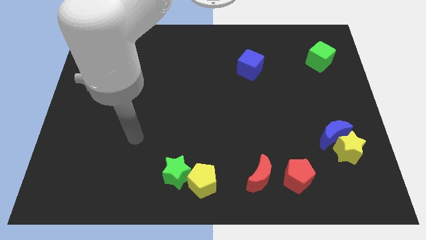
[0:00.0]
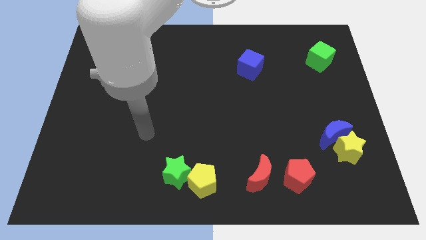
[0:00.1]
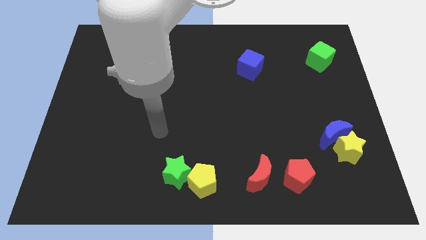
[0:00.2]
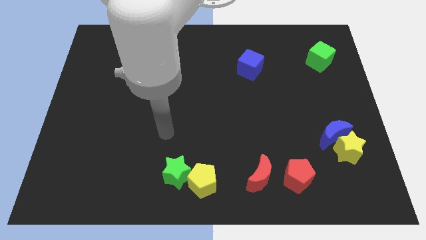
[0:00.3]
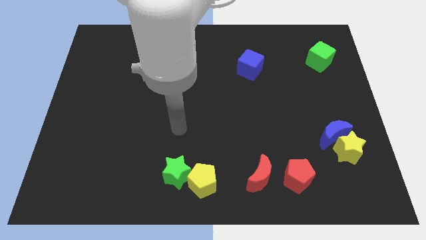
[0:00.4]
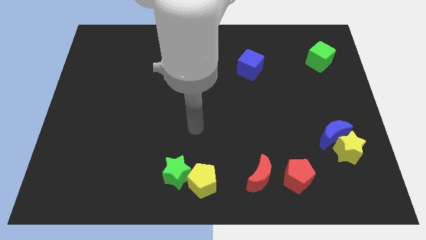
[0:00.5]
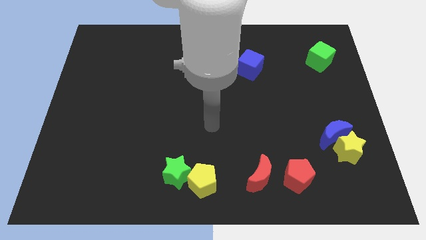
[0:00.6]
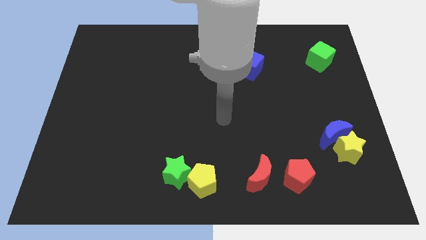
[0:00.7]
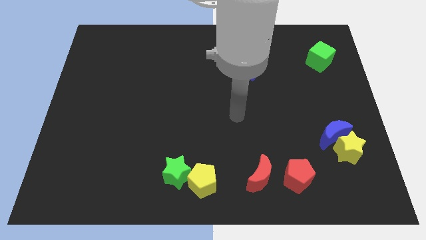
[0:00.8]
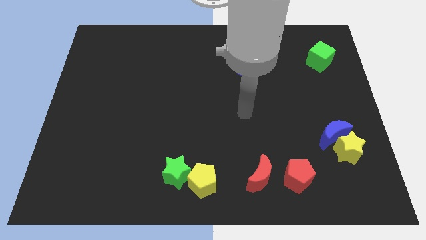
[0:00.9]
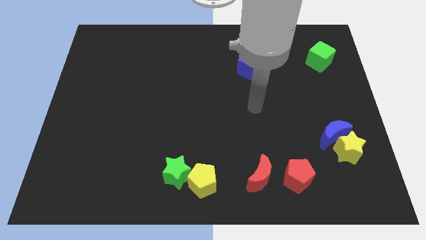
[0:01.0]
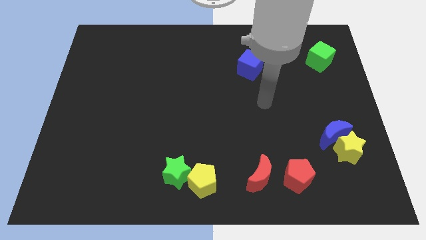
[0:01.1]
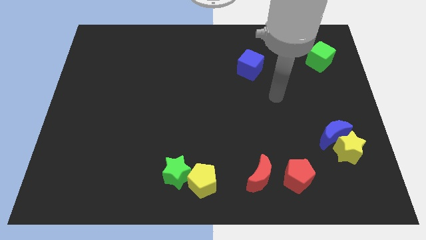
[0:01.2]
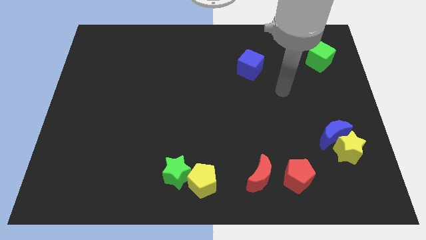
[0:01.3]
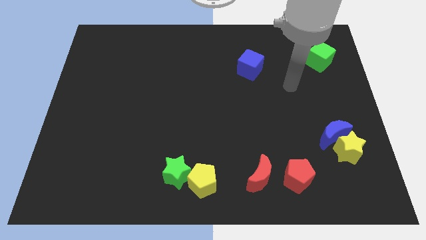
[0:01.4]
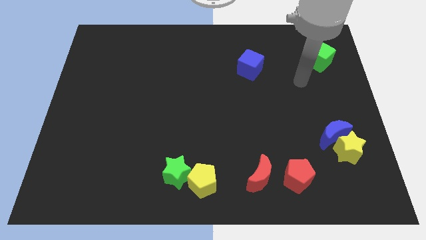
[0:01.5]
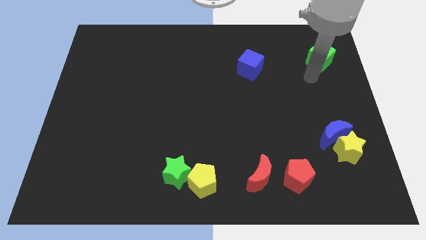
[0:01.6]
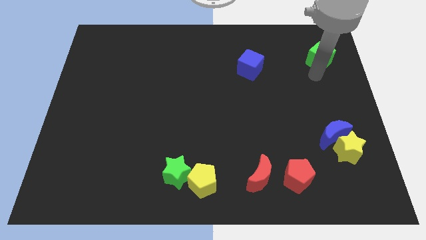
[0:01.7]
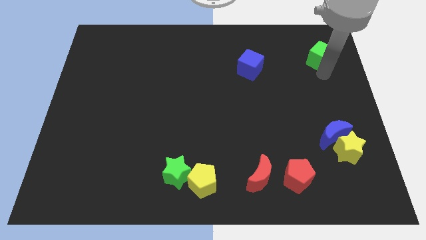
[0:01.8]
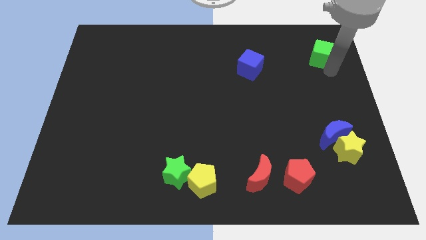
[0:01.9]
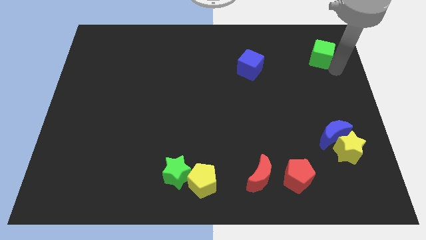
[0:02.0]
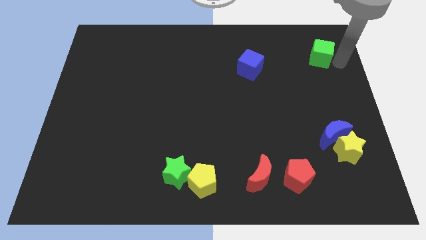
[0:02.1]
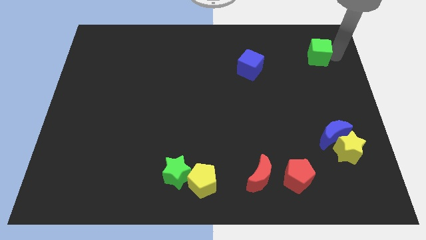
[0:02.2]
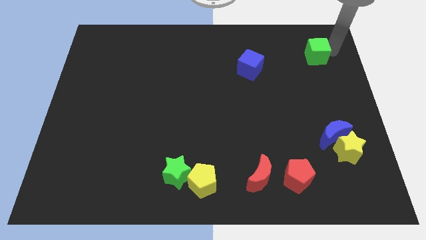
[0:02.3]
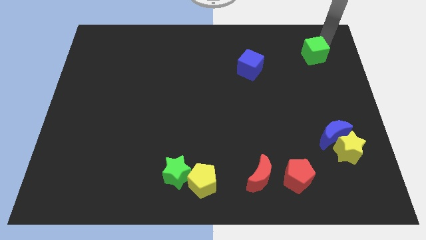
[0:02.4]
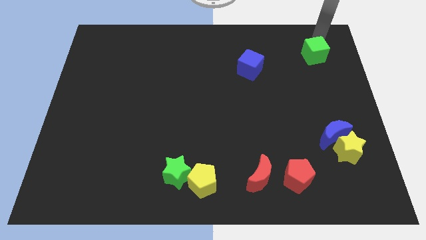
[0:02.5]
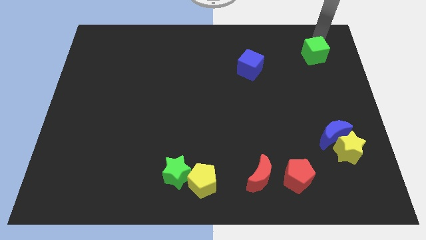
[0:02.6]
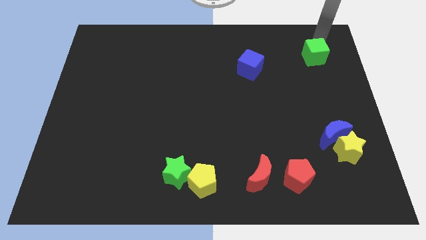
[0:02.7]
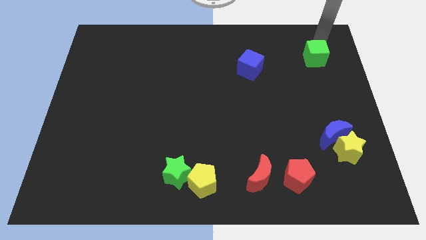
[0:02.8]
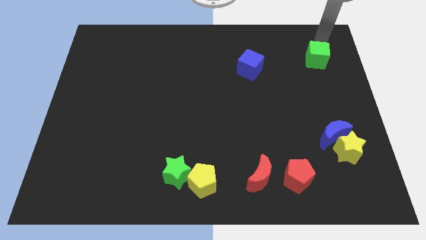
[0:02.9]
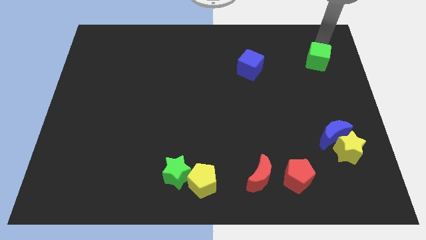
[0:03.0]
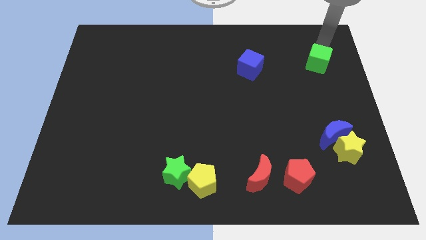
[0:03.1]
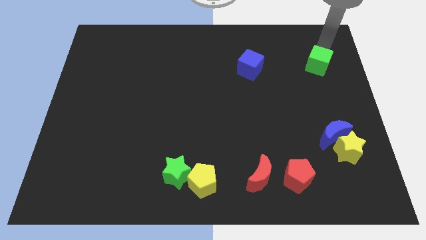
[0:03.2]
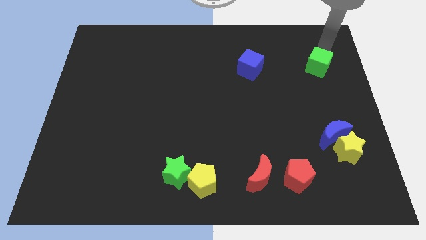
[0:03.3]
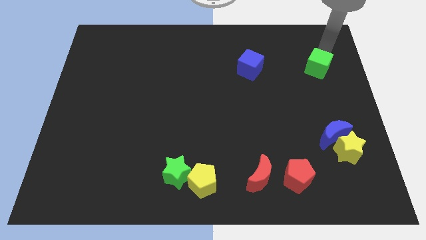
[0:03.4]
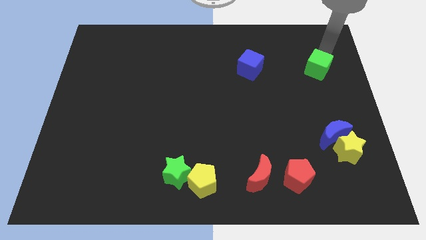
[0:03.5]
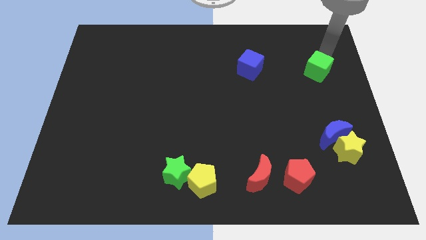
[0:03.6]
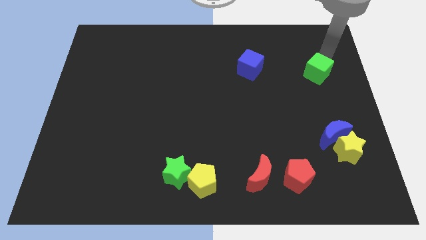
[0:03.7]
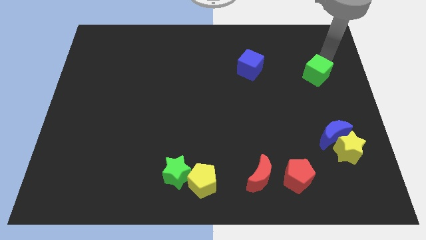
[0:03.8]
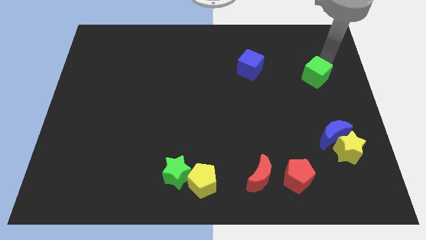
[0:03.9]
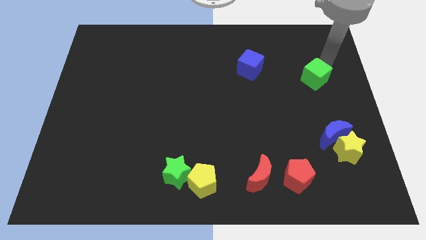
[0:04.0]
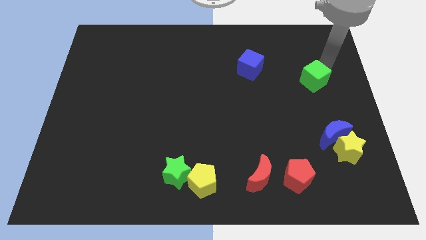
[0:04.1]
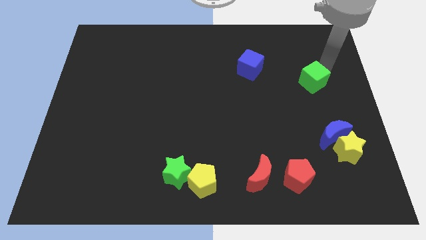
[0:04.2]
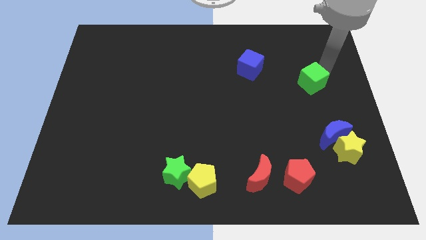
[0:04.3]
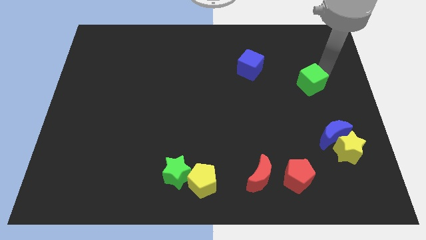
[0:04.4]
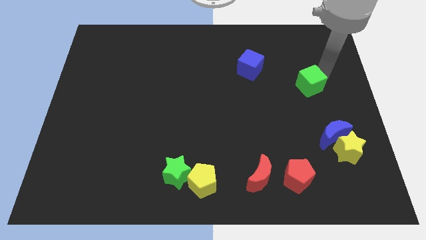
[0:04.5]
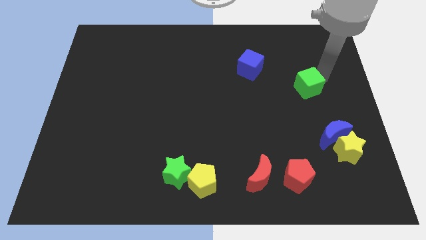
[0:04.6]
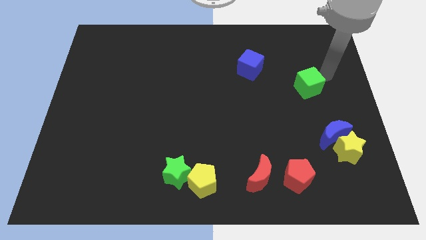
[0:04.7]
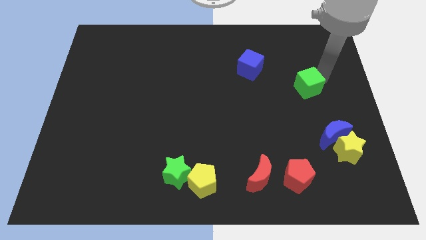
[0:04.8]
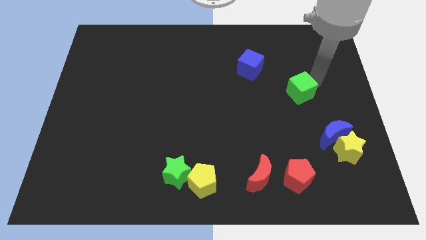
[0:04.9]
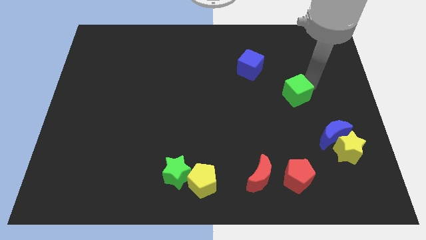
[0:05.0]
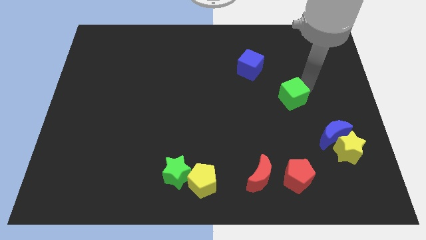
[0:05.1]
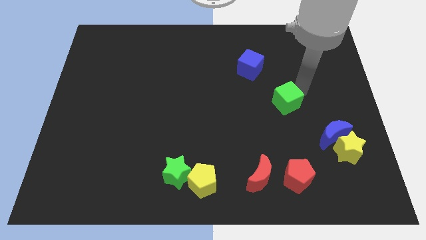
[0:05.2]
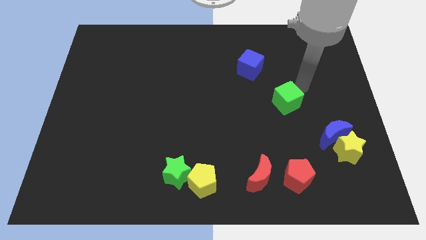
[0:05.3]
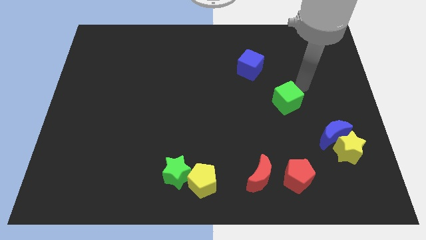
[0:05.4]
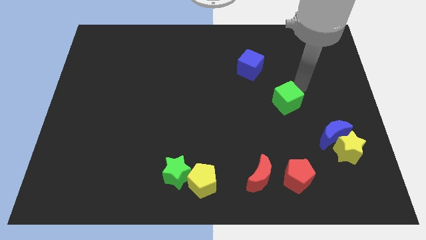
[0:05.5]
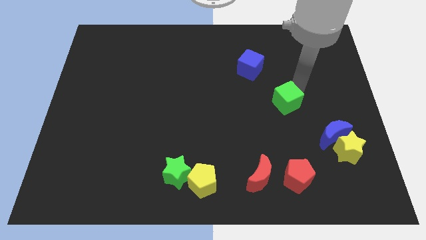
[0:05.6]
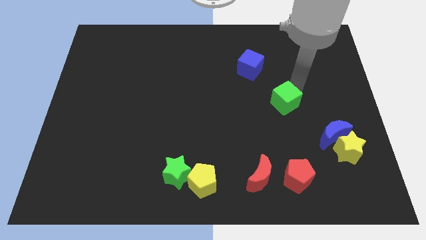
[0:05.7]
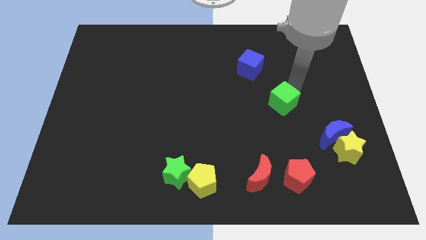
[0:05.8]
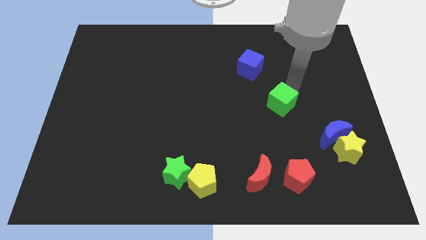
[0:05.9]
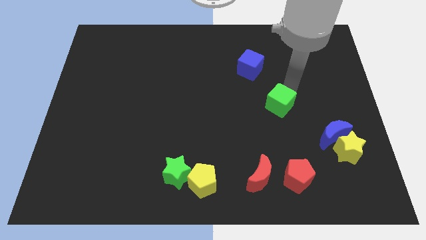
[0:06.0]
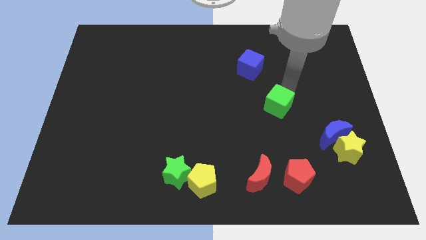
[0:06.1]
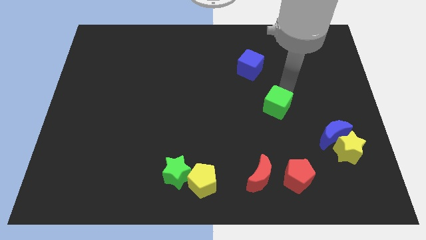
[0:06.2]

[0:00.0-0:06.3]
push the green cube diagonally down and to the left

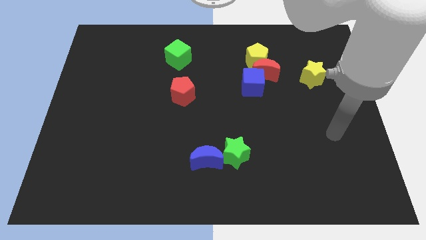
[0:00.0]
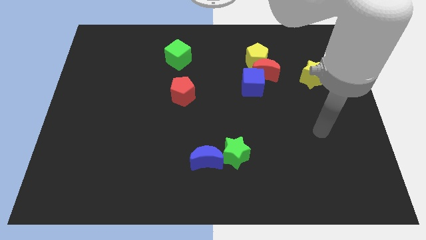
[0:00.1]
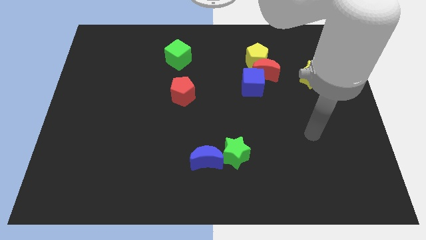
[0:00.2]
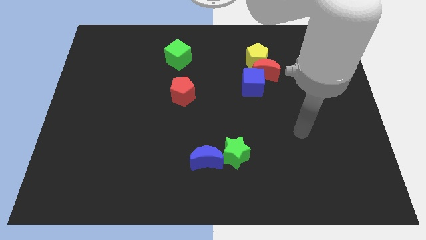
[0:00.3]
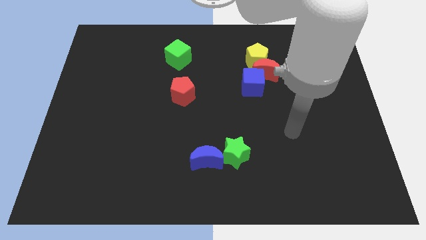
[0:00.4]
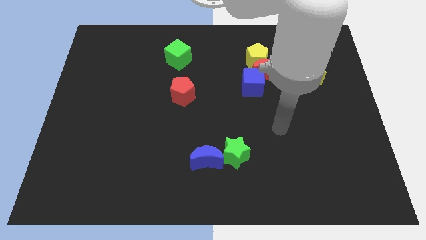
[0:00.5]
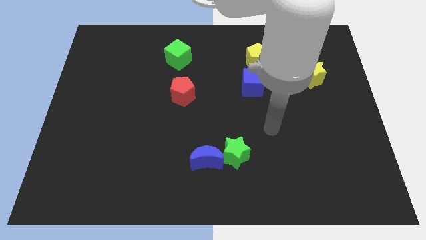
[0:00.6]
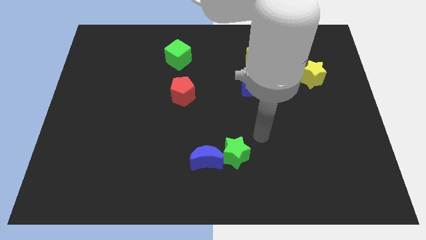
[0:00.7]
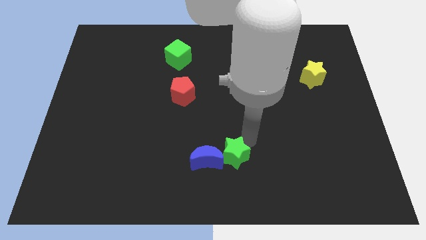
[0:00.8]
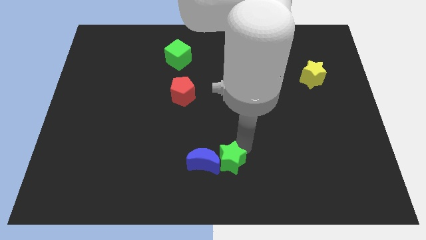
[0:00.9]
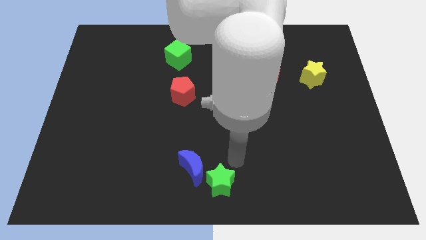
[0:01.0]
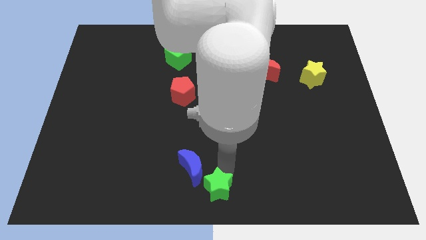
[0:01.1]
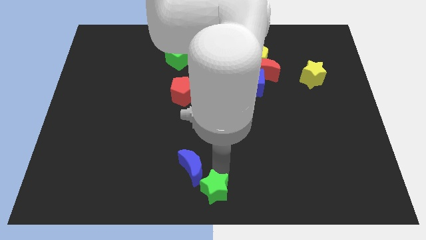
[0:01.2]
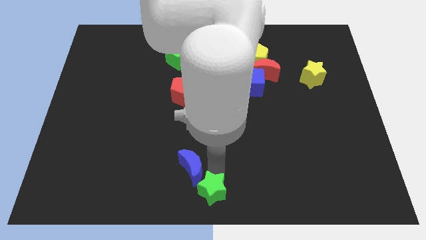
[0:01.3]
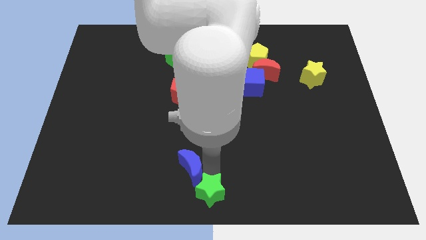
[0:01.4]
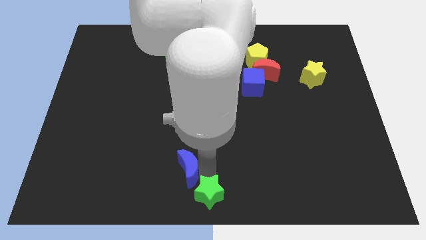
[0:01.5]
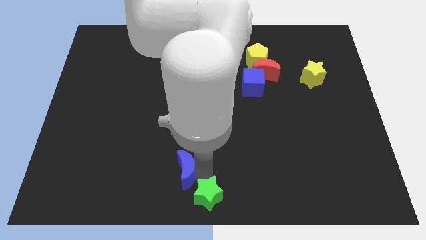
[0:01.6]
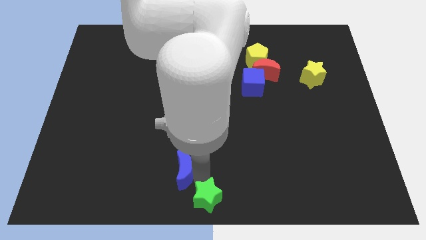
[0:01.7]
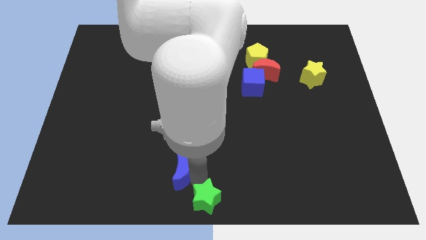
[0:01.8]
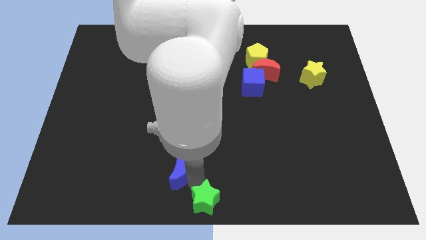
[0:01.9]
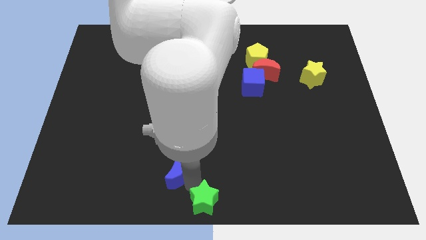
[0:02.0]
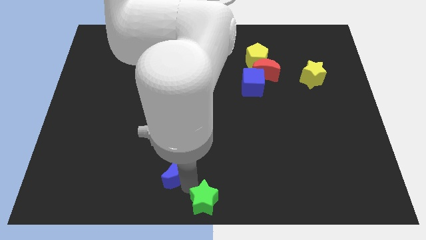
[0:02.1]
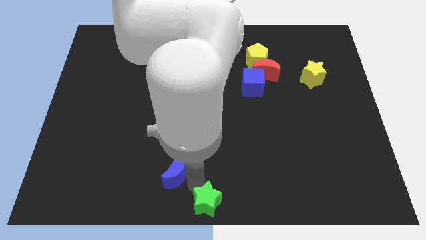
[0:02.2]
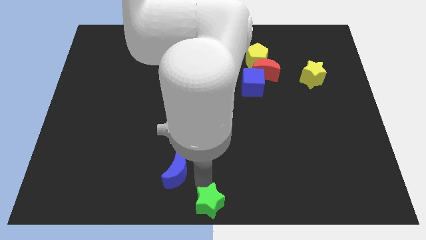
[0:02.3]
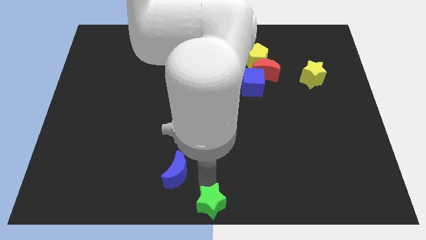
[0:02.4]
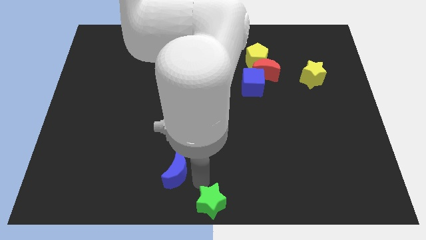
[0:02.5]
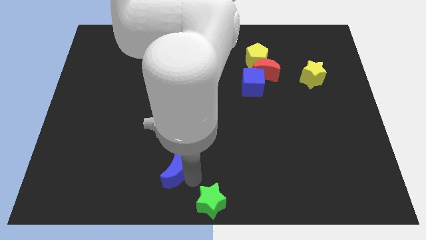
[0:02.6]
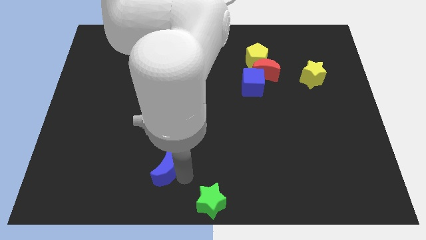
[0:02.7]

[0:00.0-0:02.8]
push the blue moon somewhat to the left
